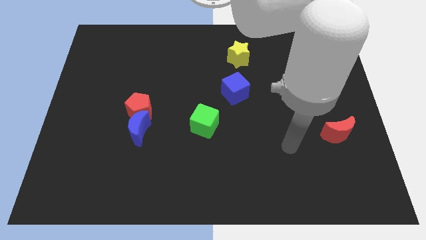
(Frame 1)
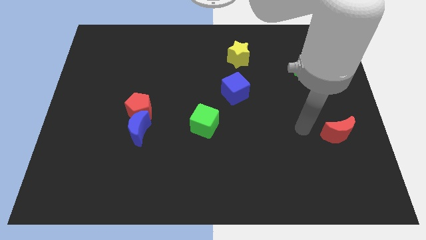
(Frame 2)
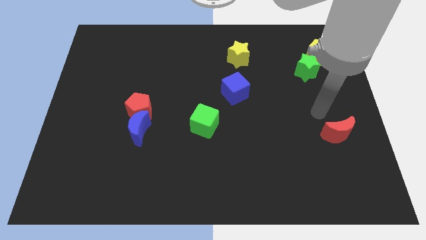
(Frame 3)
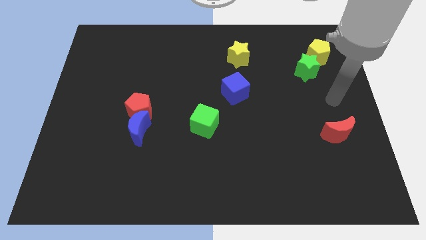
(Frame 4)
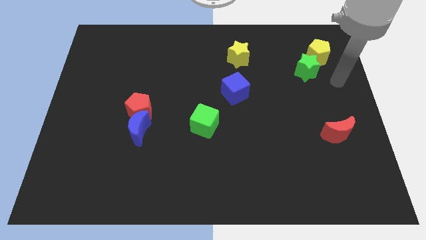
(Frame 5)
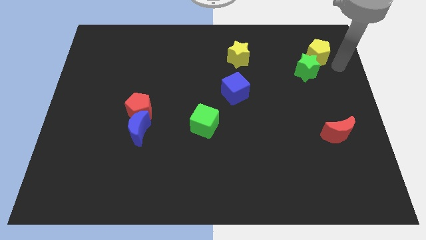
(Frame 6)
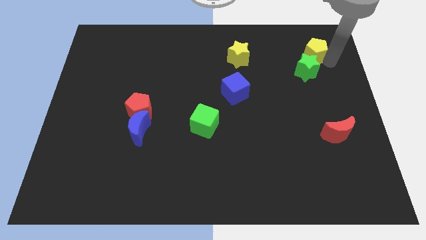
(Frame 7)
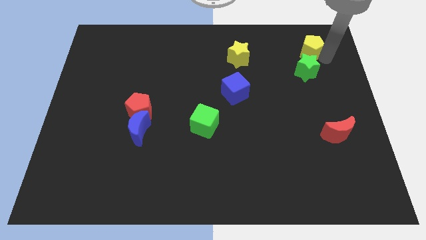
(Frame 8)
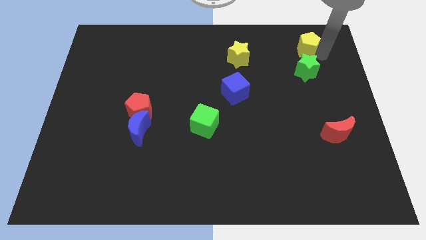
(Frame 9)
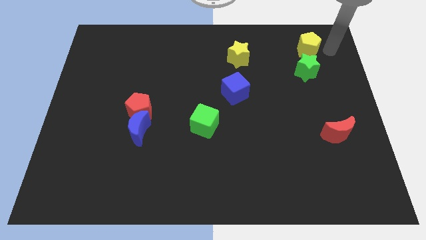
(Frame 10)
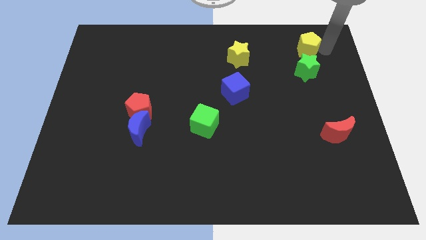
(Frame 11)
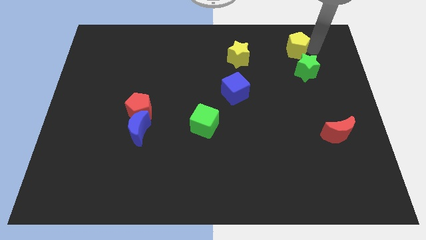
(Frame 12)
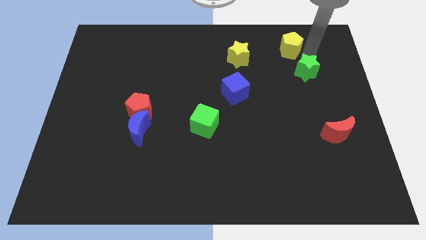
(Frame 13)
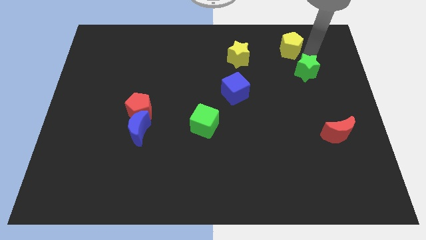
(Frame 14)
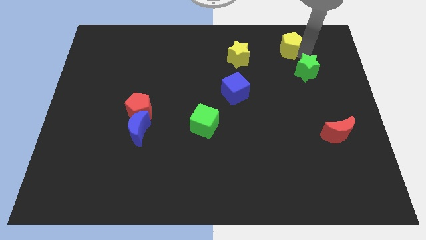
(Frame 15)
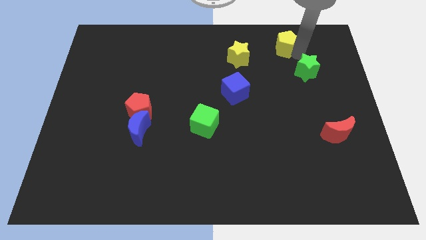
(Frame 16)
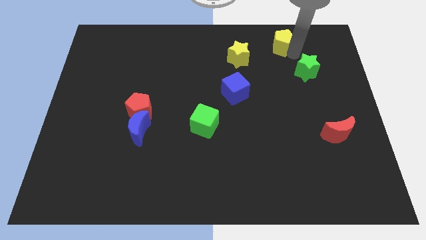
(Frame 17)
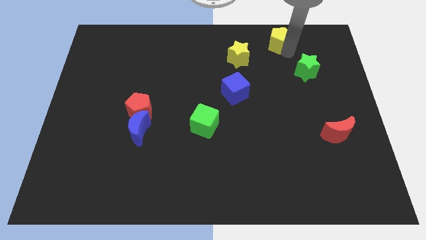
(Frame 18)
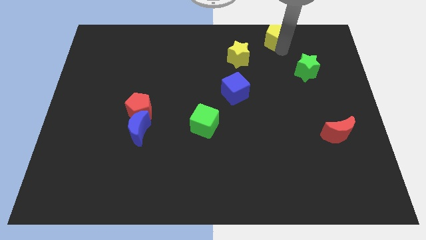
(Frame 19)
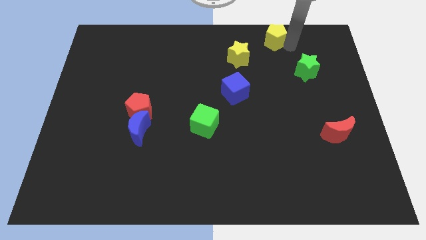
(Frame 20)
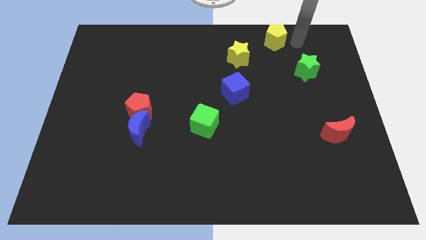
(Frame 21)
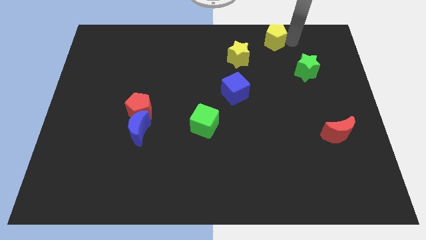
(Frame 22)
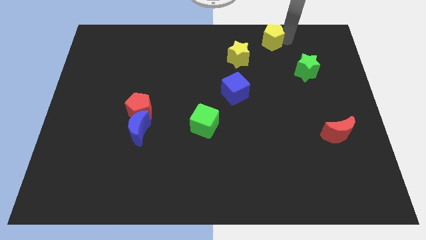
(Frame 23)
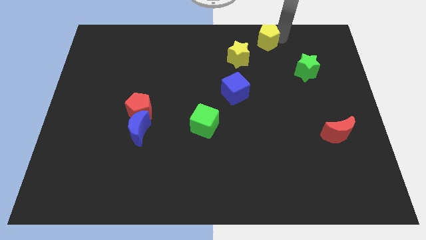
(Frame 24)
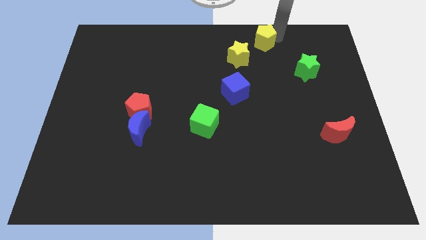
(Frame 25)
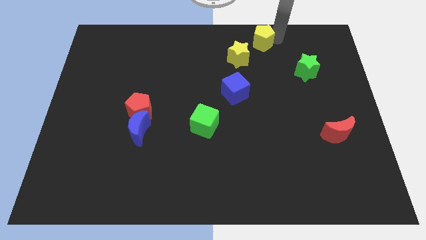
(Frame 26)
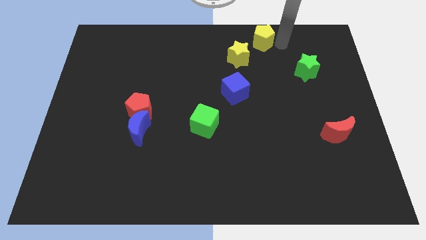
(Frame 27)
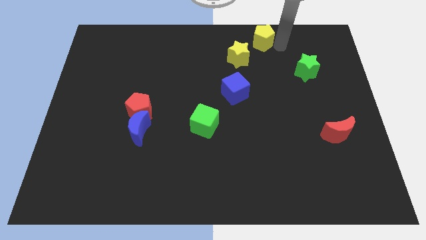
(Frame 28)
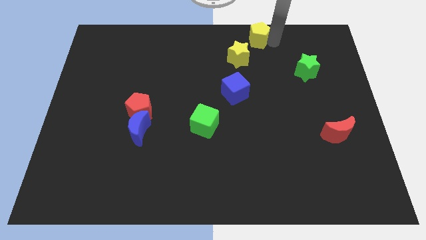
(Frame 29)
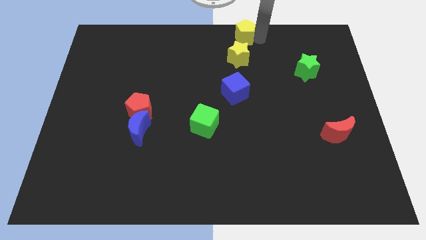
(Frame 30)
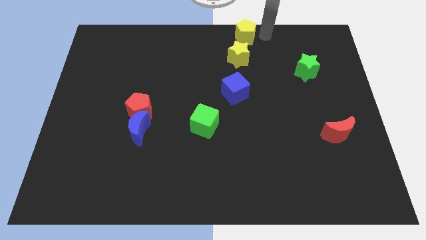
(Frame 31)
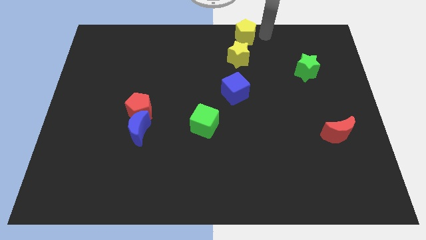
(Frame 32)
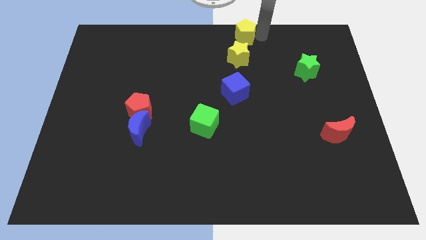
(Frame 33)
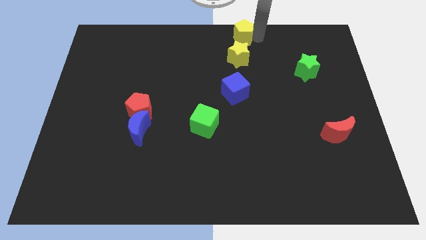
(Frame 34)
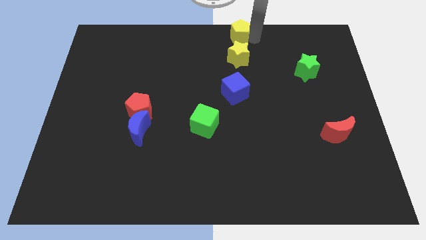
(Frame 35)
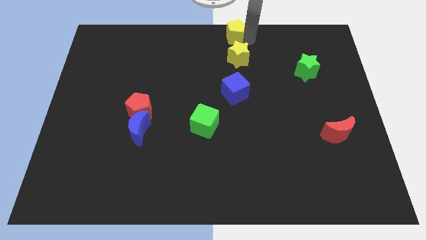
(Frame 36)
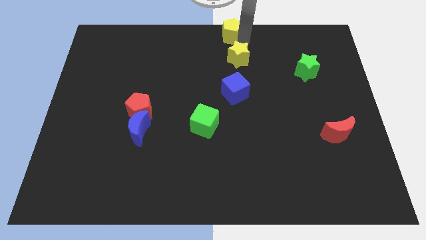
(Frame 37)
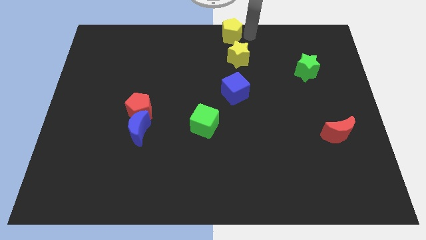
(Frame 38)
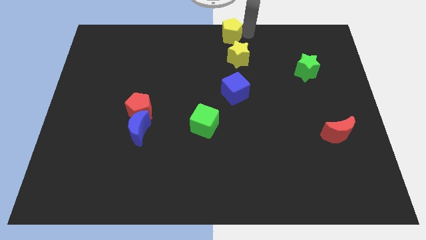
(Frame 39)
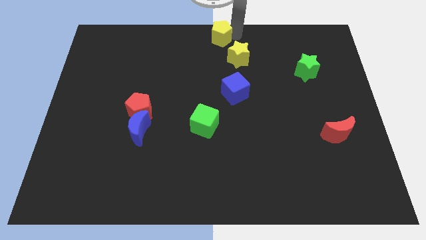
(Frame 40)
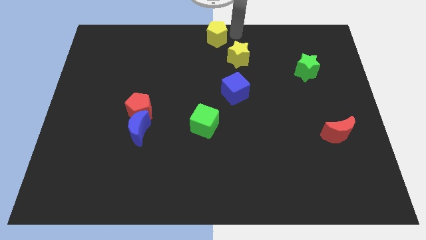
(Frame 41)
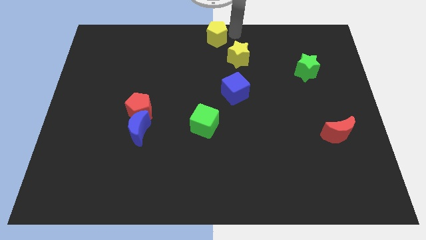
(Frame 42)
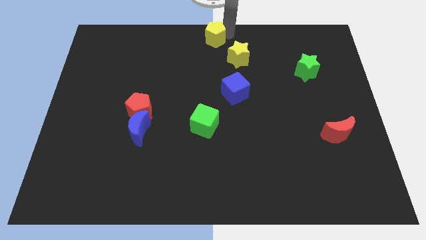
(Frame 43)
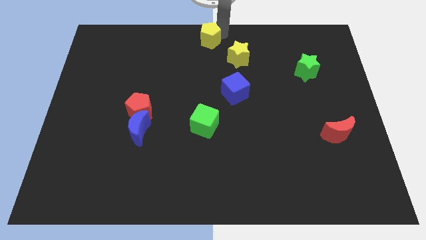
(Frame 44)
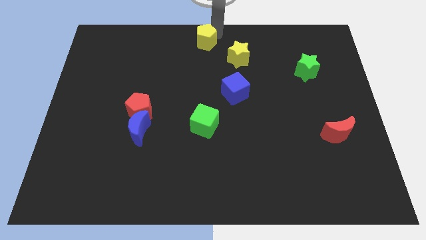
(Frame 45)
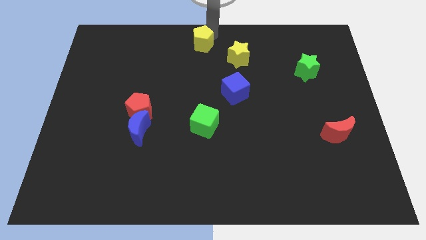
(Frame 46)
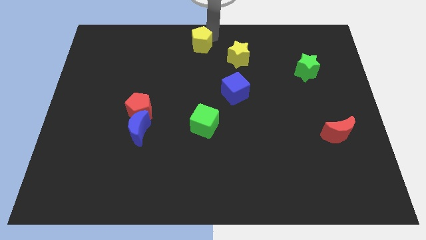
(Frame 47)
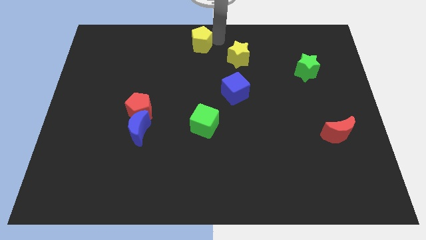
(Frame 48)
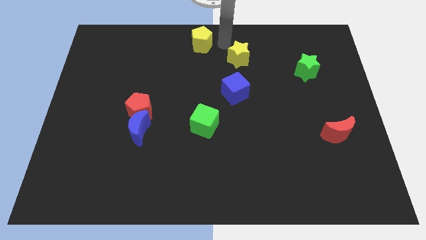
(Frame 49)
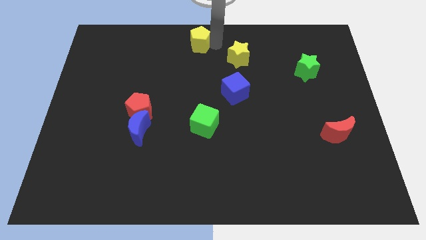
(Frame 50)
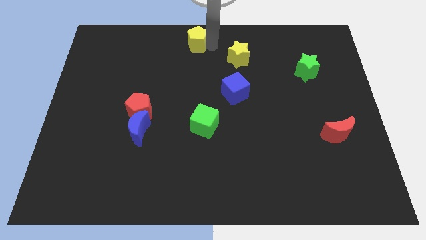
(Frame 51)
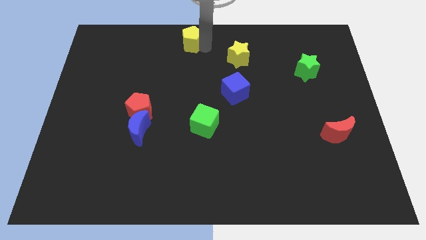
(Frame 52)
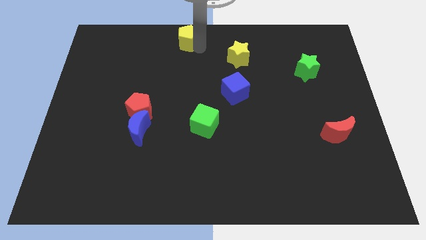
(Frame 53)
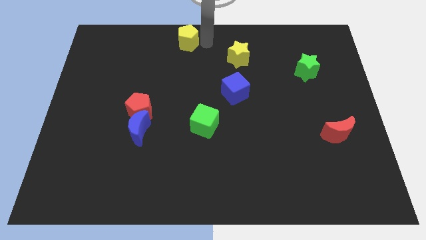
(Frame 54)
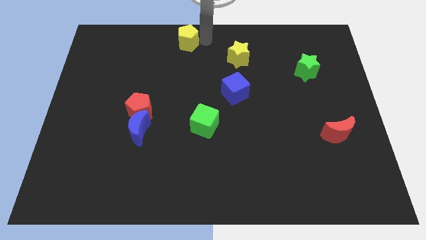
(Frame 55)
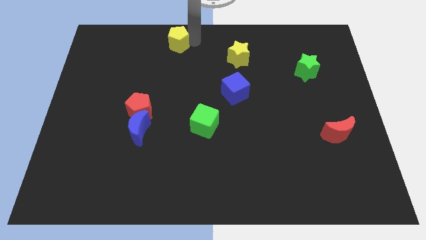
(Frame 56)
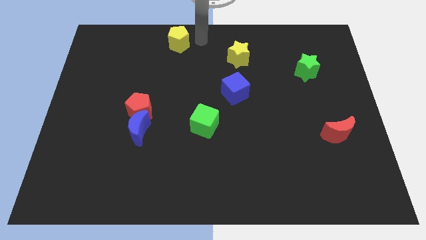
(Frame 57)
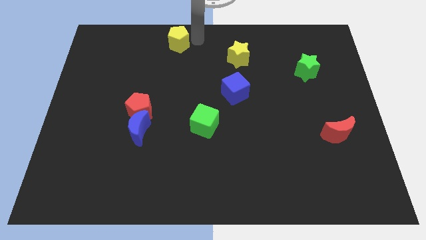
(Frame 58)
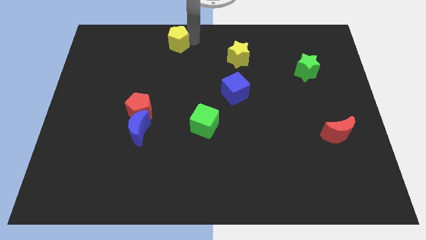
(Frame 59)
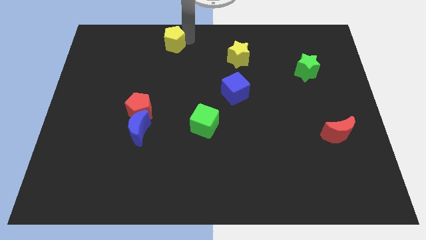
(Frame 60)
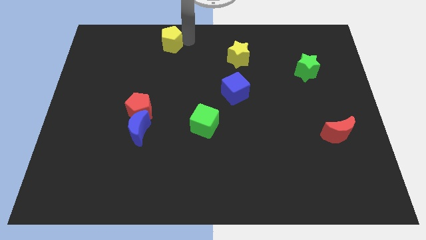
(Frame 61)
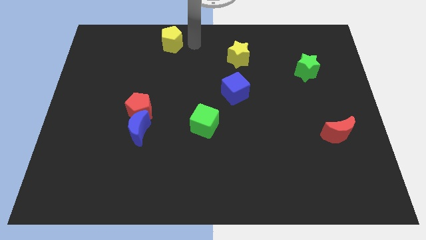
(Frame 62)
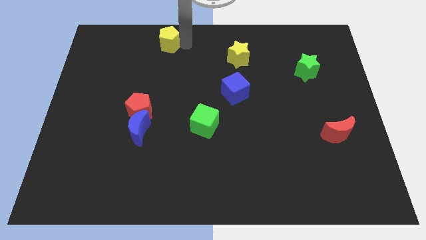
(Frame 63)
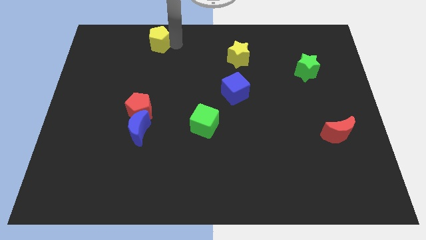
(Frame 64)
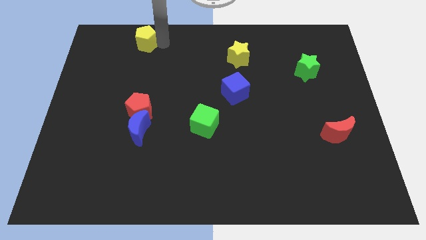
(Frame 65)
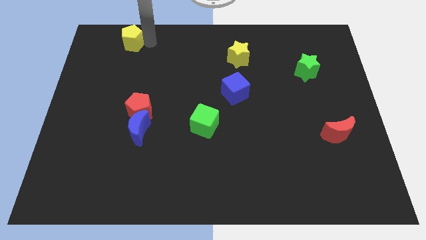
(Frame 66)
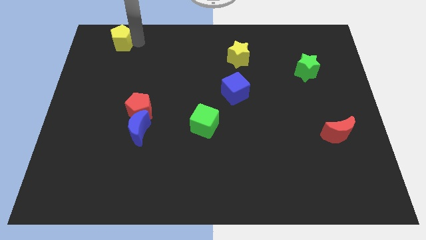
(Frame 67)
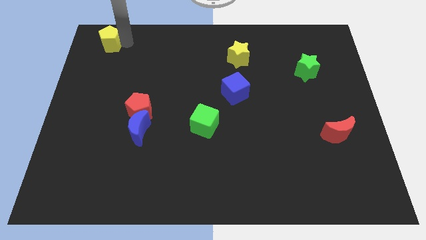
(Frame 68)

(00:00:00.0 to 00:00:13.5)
put the yellow pentagon to the top left of the board
